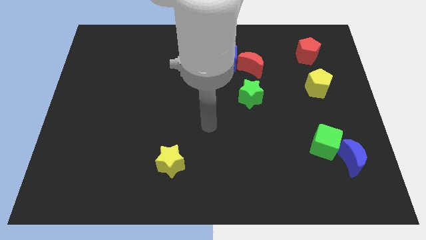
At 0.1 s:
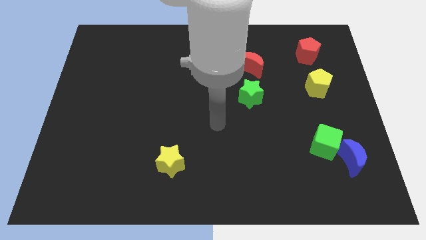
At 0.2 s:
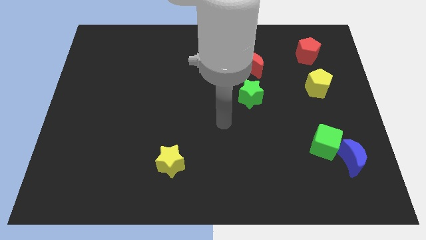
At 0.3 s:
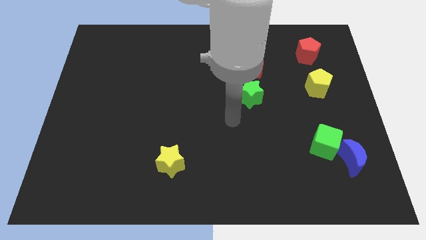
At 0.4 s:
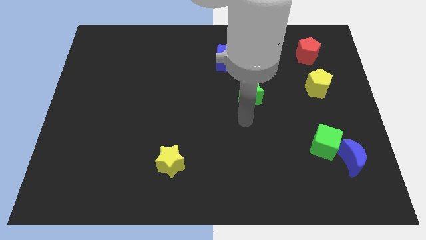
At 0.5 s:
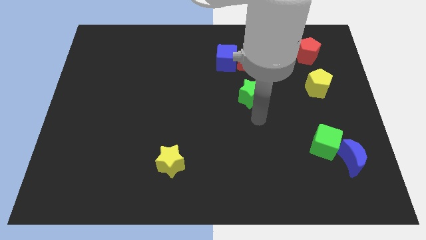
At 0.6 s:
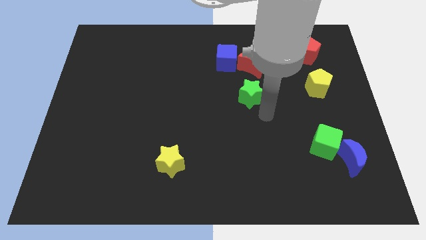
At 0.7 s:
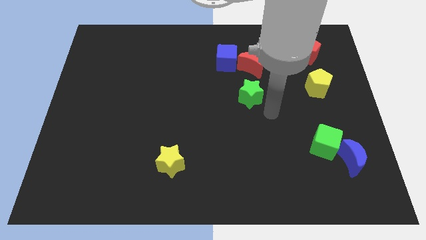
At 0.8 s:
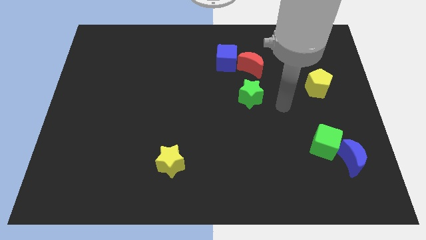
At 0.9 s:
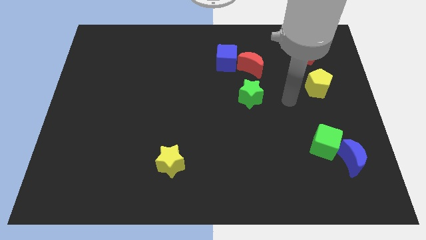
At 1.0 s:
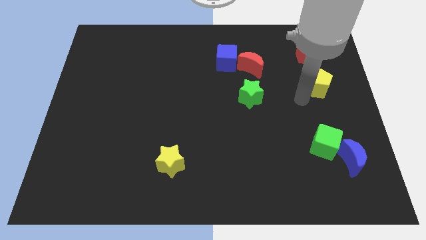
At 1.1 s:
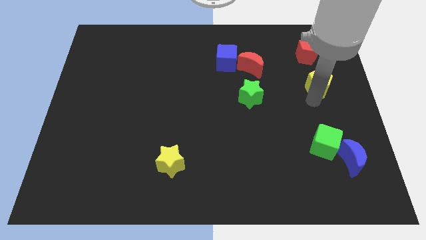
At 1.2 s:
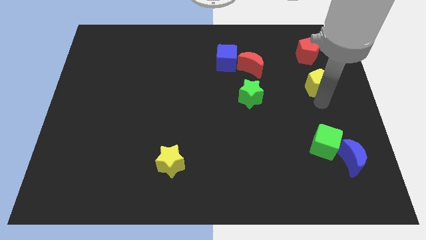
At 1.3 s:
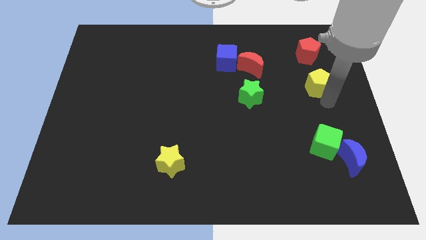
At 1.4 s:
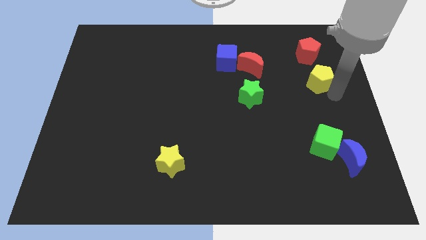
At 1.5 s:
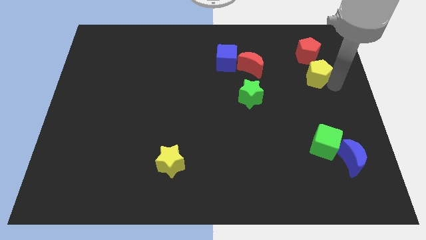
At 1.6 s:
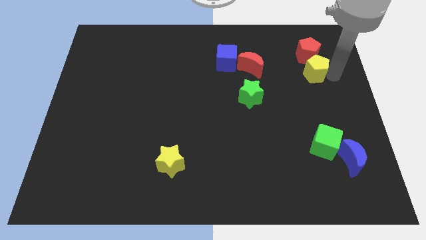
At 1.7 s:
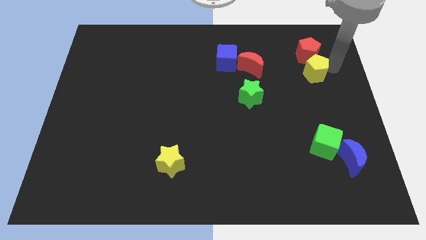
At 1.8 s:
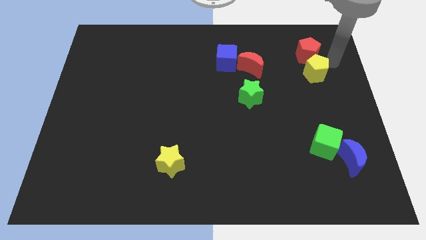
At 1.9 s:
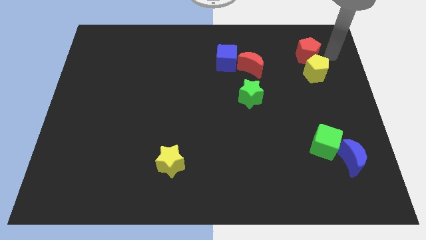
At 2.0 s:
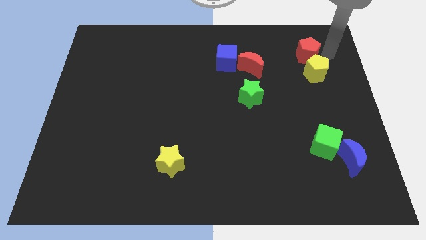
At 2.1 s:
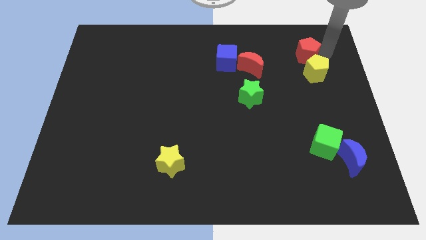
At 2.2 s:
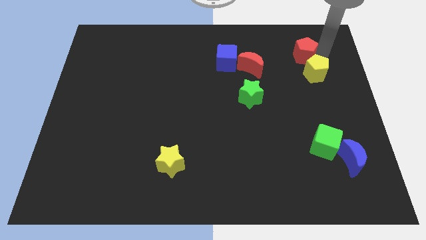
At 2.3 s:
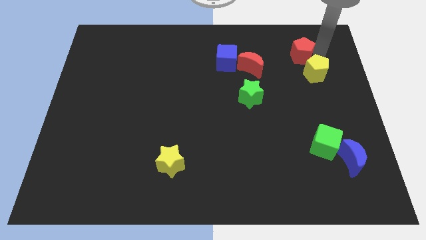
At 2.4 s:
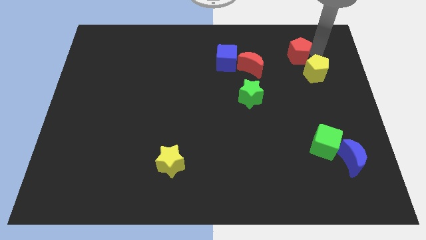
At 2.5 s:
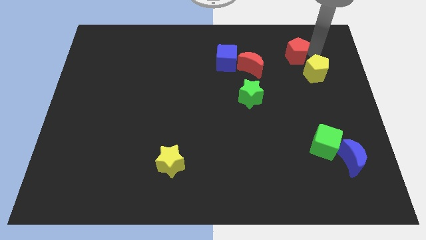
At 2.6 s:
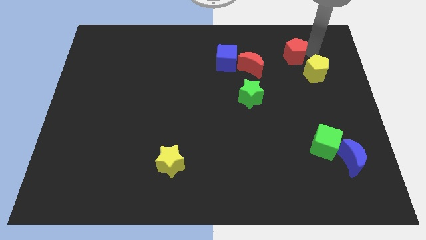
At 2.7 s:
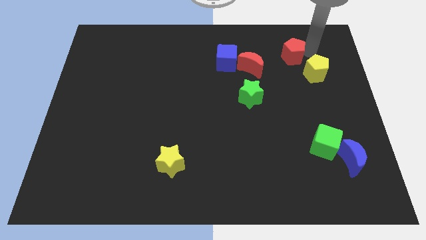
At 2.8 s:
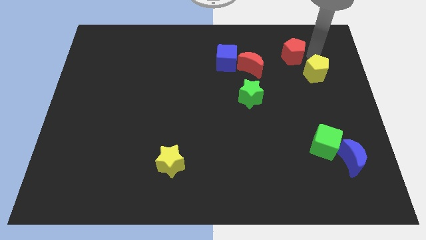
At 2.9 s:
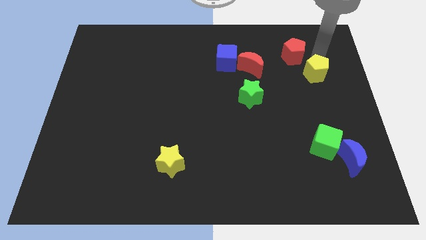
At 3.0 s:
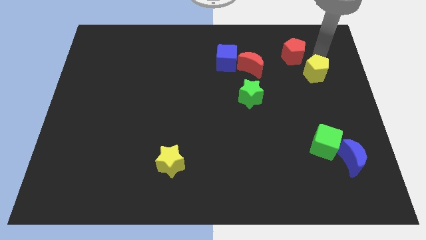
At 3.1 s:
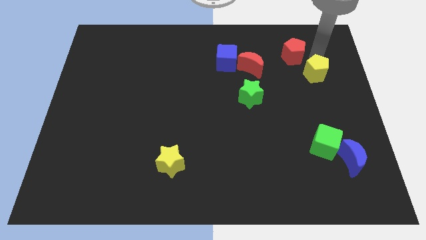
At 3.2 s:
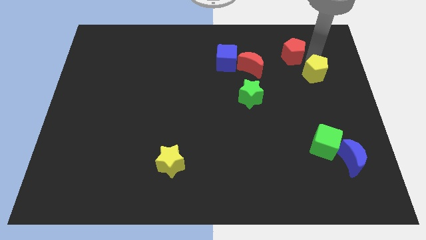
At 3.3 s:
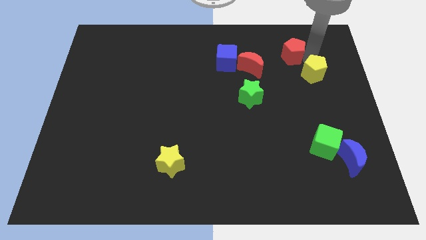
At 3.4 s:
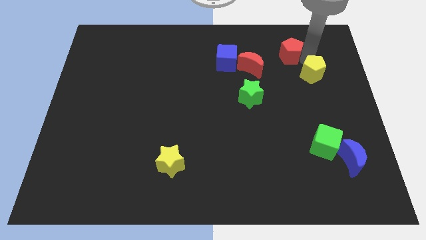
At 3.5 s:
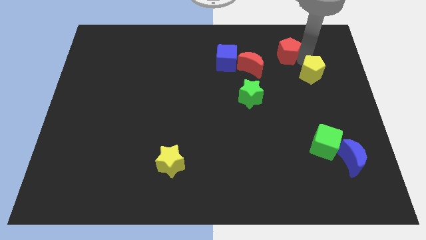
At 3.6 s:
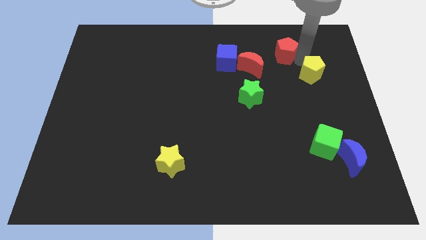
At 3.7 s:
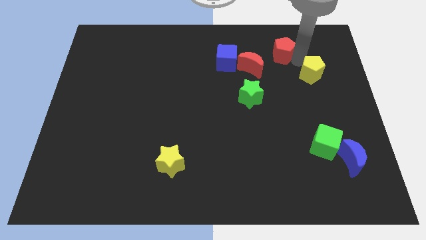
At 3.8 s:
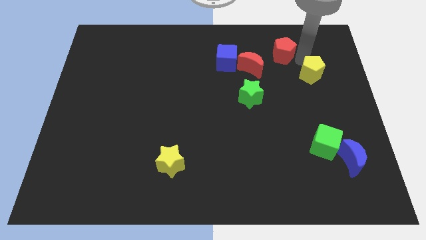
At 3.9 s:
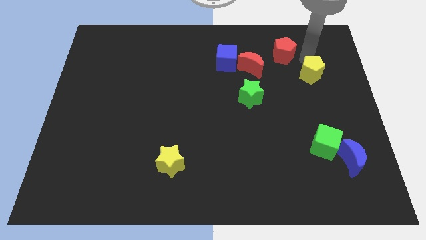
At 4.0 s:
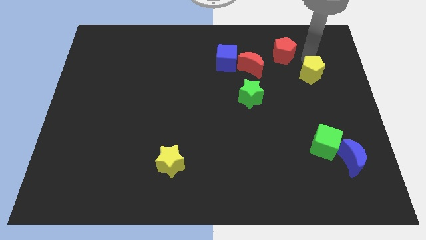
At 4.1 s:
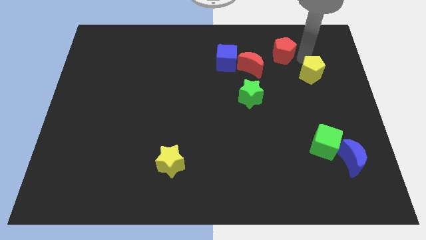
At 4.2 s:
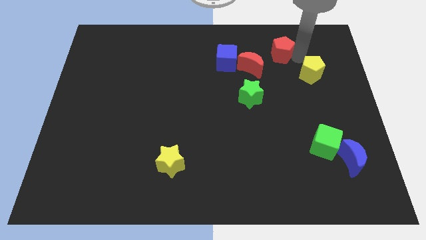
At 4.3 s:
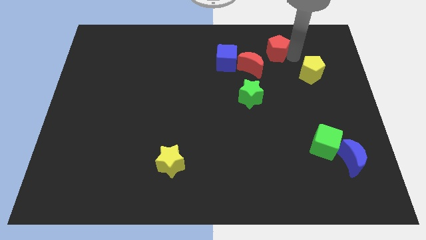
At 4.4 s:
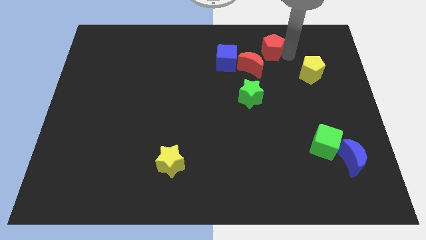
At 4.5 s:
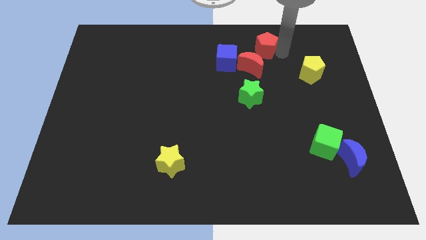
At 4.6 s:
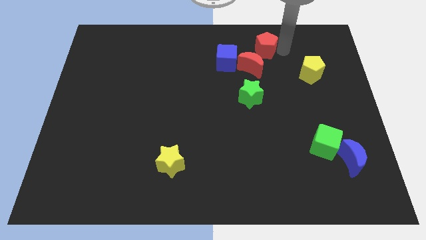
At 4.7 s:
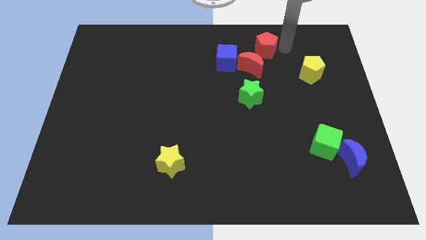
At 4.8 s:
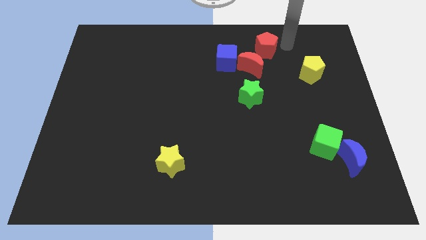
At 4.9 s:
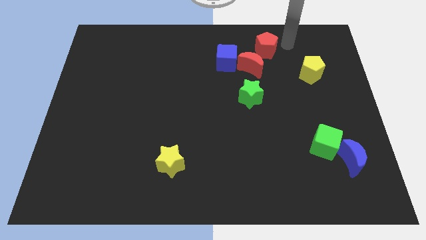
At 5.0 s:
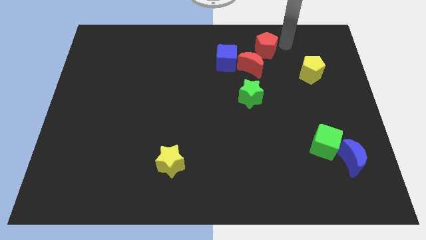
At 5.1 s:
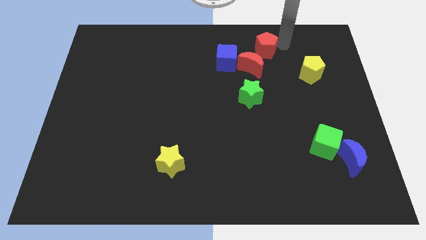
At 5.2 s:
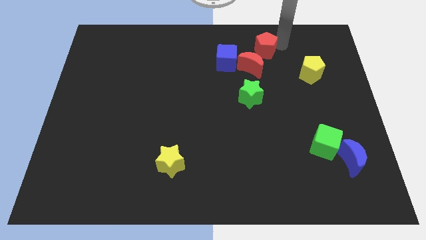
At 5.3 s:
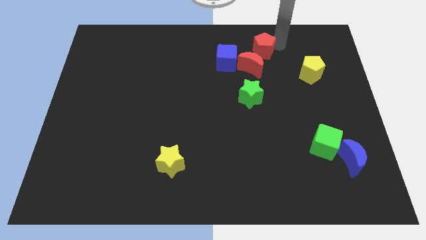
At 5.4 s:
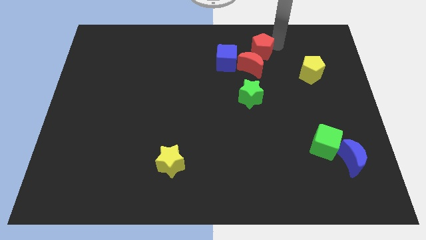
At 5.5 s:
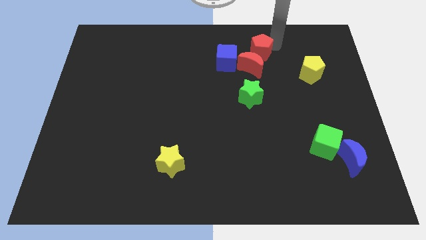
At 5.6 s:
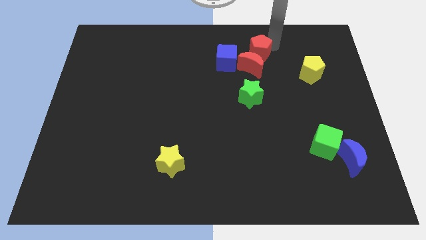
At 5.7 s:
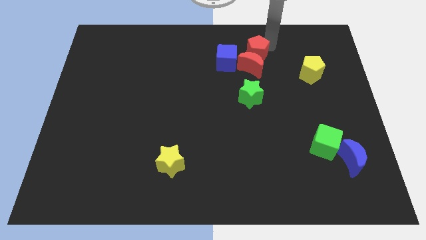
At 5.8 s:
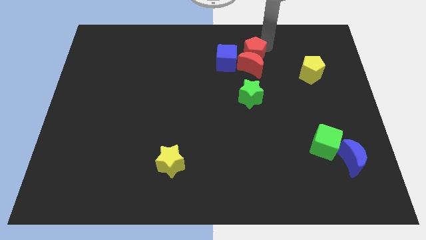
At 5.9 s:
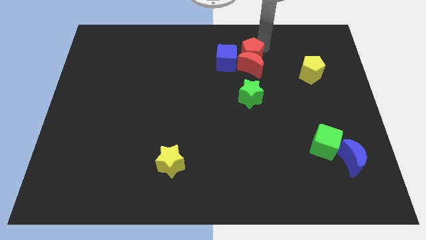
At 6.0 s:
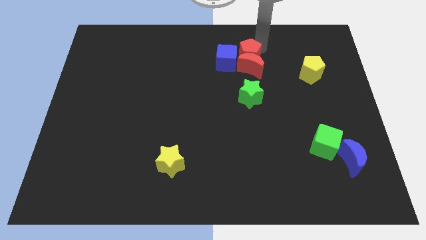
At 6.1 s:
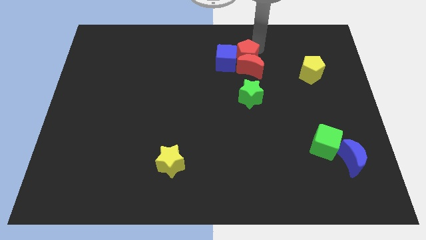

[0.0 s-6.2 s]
move the red pentagon next to the blue cube

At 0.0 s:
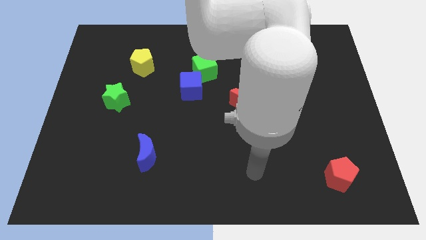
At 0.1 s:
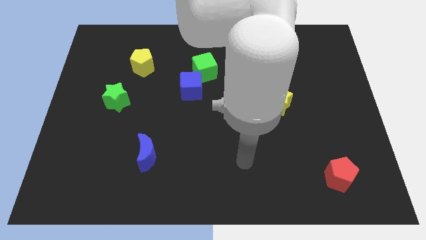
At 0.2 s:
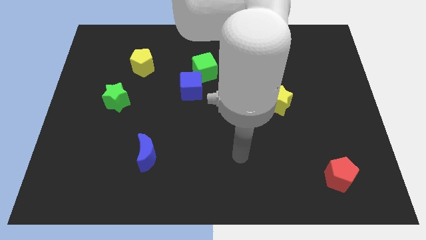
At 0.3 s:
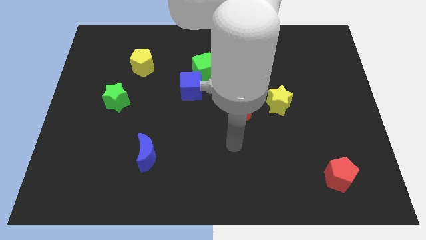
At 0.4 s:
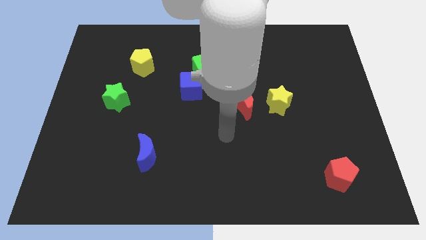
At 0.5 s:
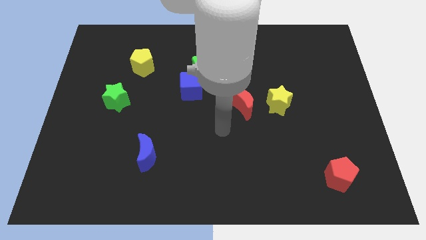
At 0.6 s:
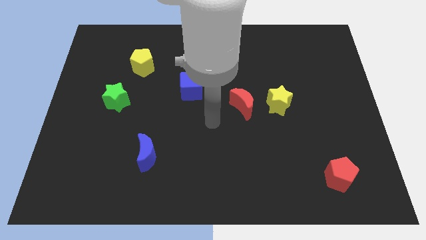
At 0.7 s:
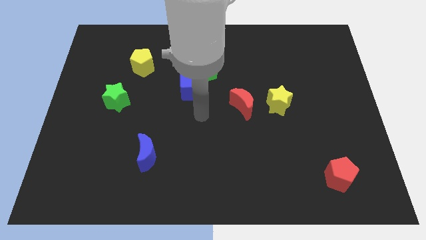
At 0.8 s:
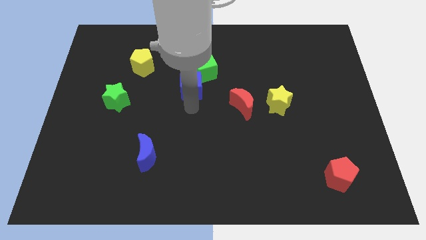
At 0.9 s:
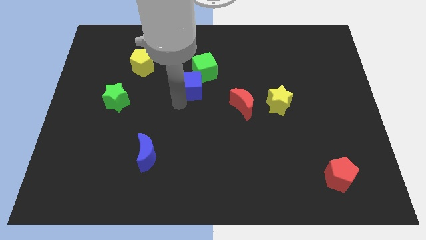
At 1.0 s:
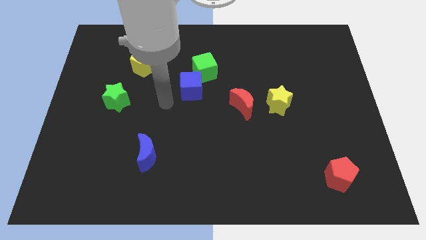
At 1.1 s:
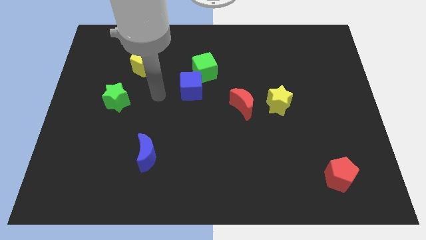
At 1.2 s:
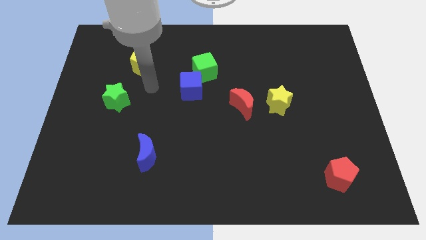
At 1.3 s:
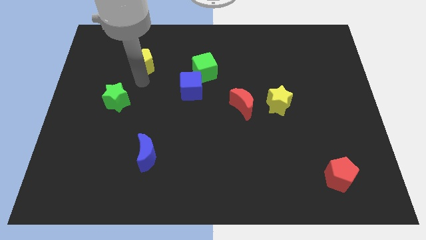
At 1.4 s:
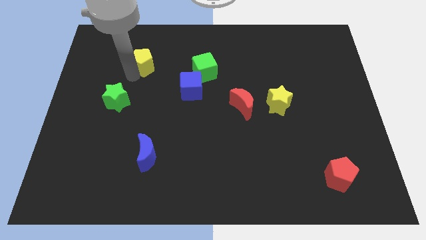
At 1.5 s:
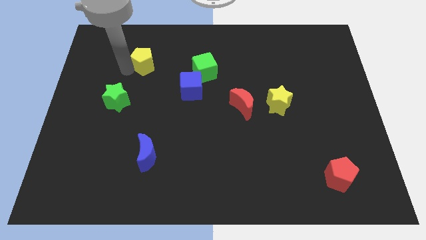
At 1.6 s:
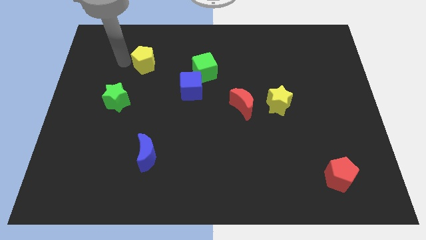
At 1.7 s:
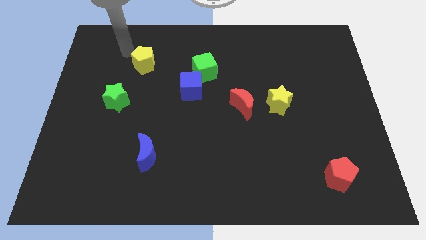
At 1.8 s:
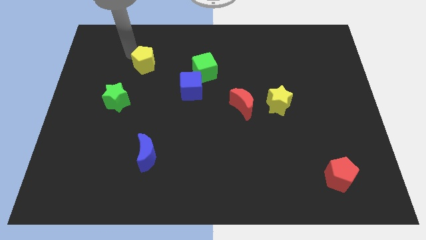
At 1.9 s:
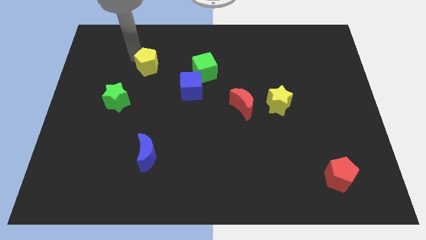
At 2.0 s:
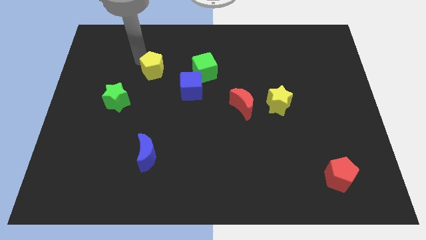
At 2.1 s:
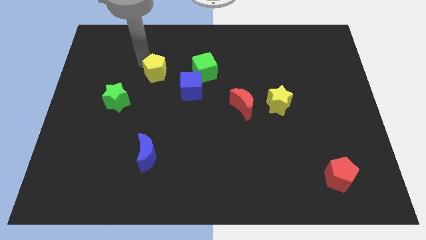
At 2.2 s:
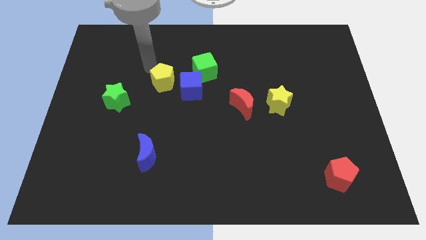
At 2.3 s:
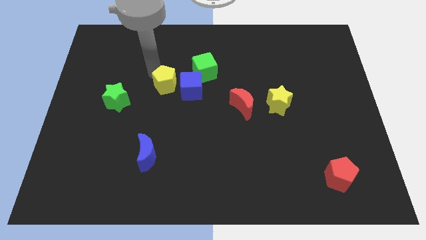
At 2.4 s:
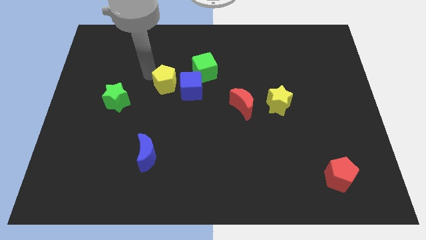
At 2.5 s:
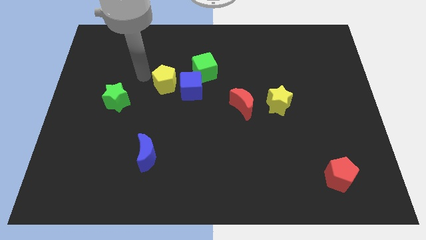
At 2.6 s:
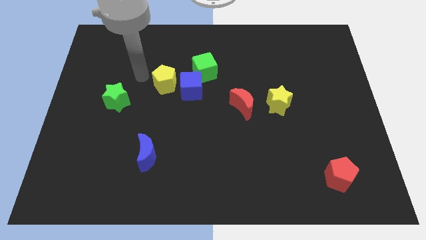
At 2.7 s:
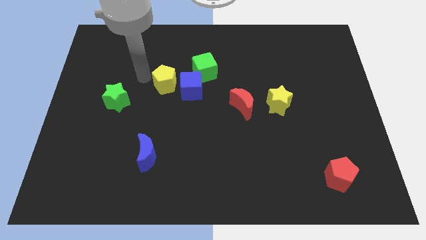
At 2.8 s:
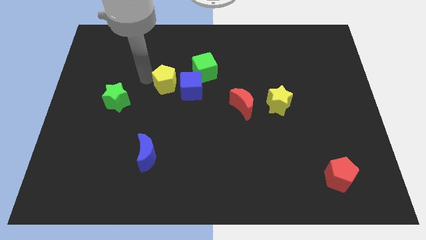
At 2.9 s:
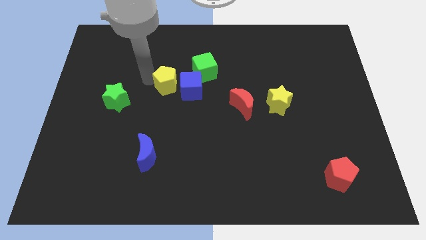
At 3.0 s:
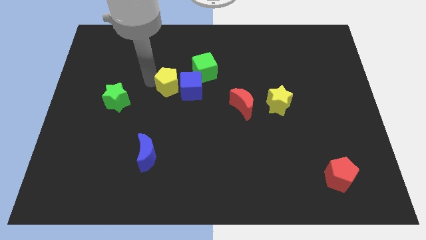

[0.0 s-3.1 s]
move the yellow pentagon close to the blue cube
